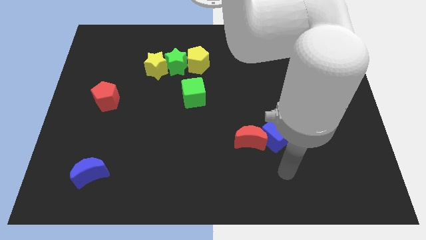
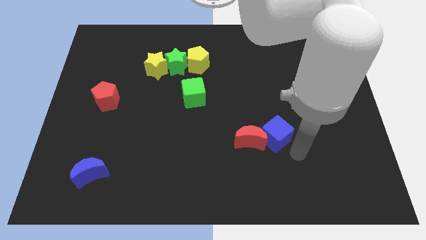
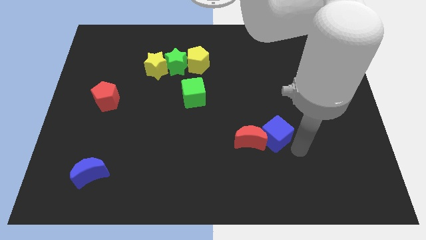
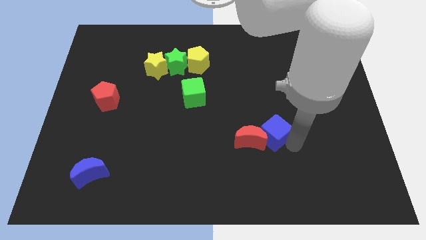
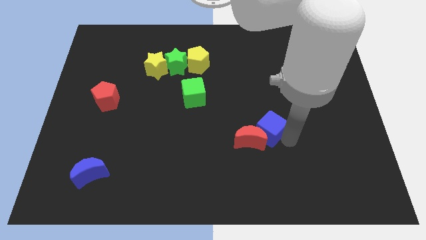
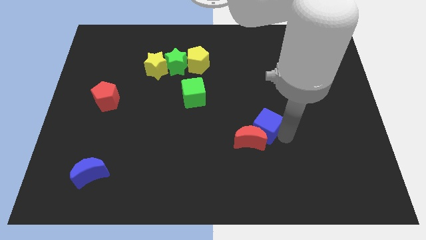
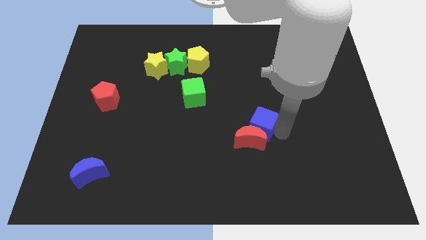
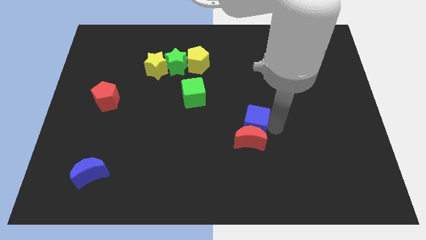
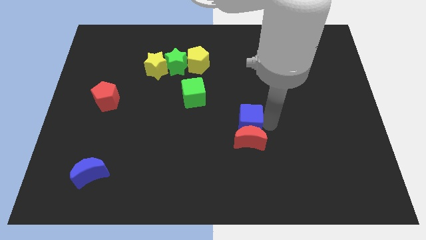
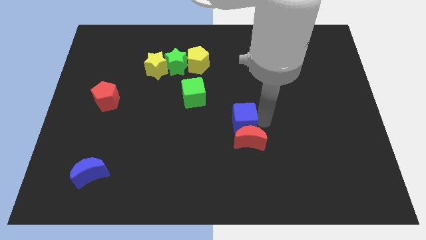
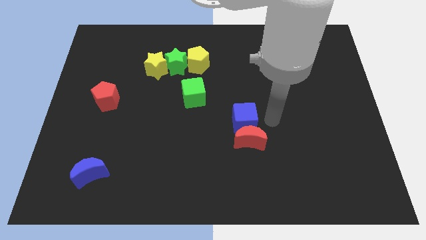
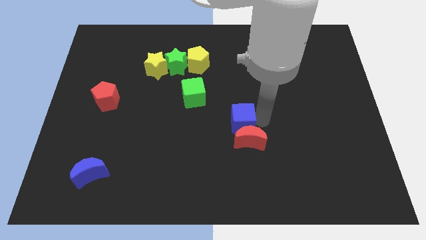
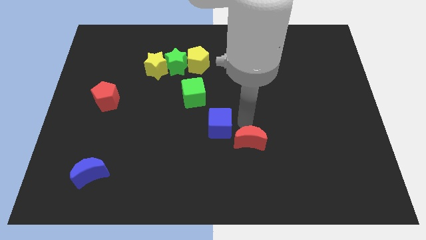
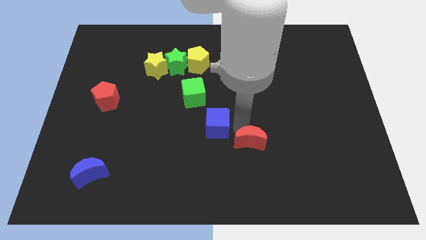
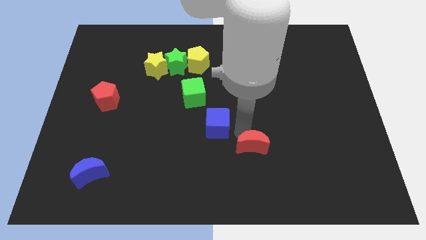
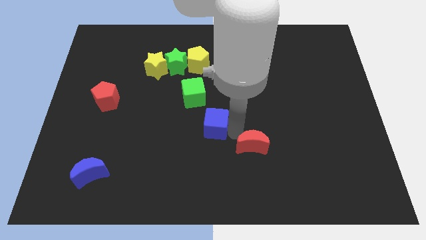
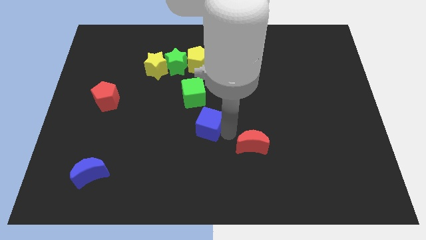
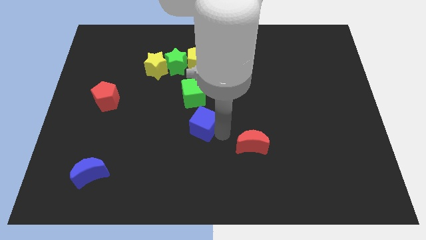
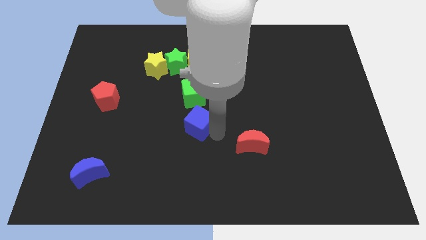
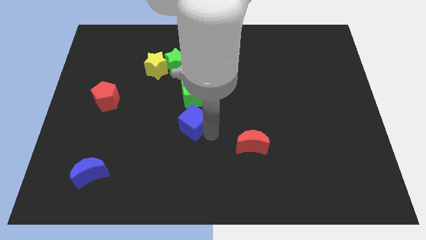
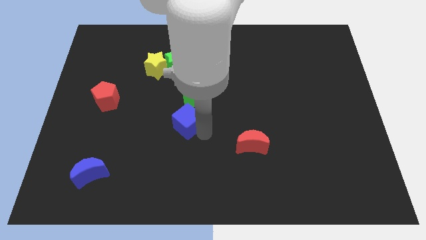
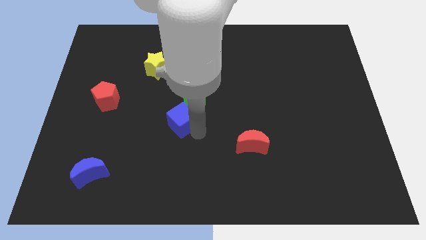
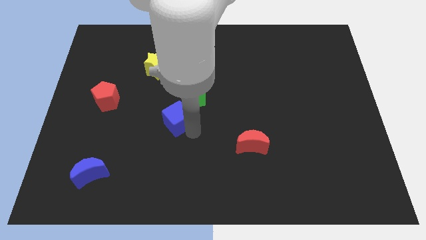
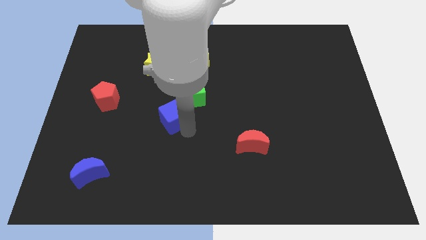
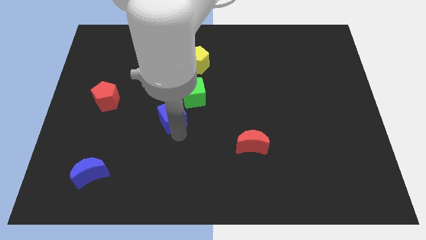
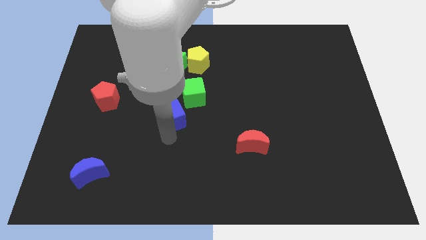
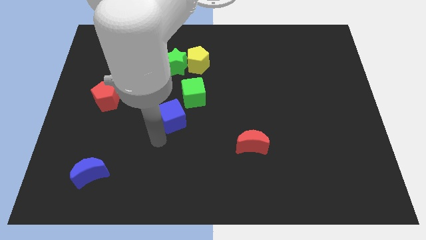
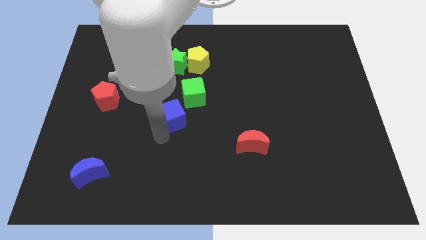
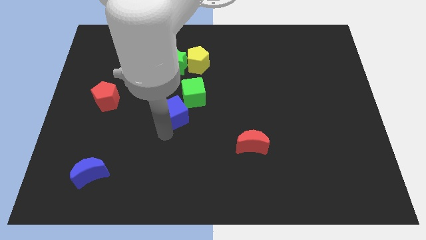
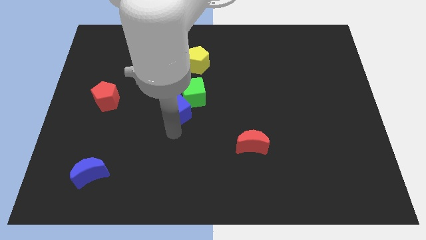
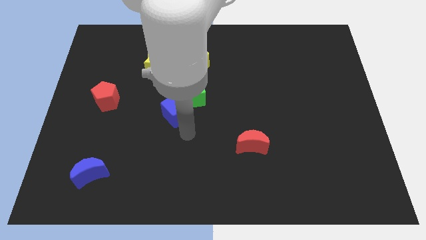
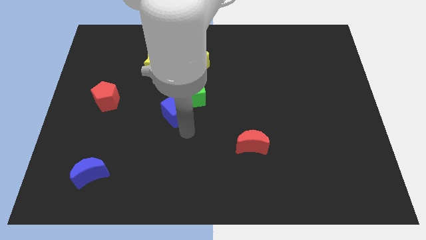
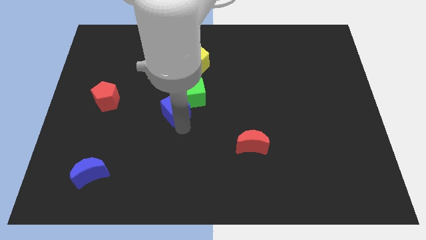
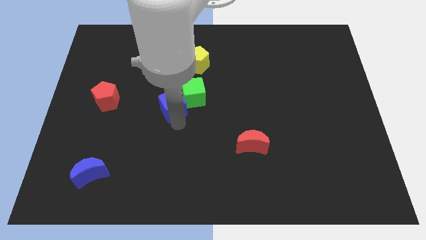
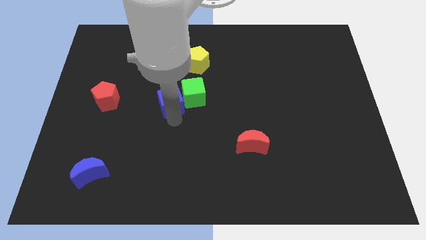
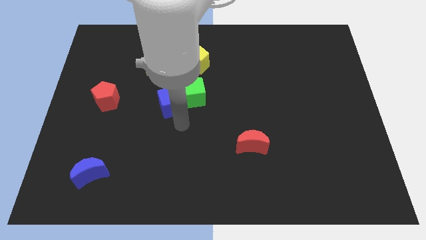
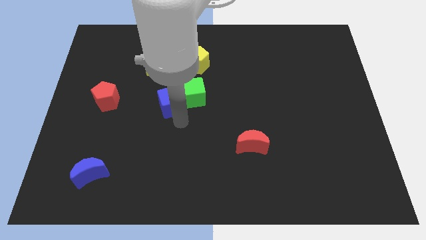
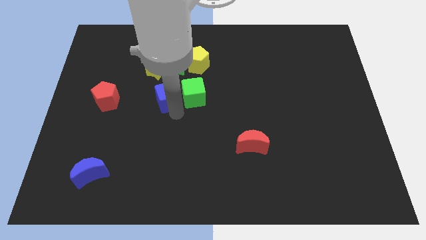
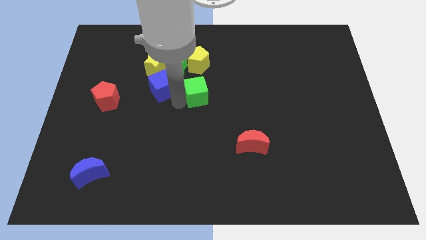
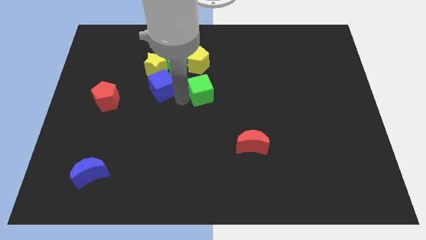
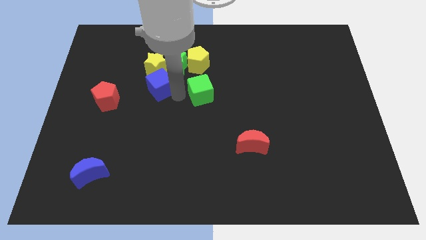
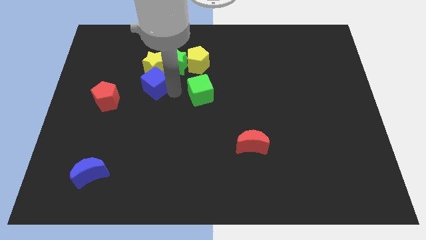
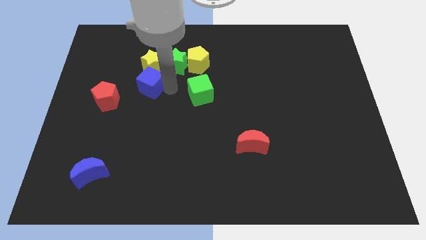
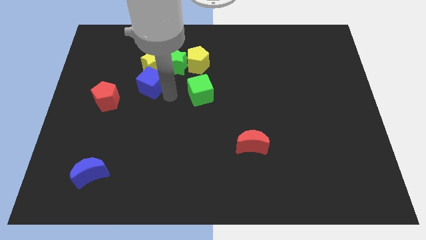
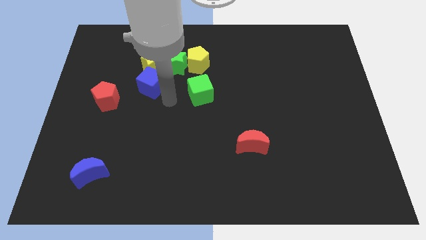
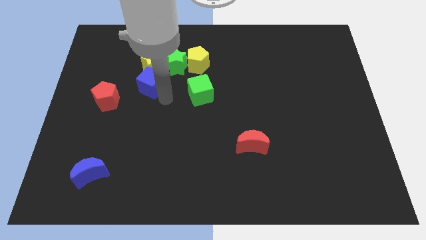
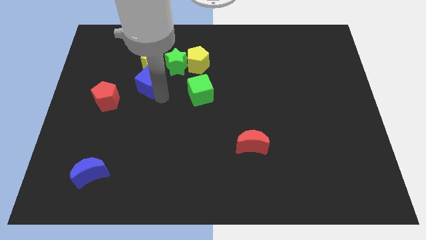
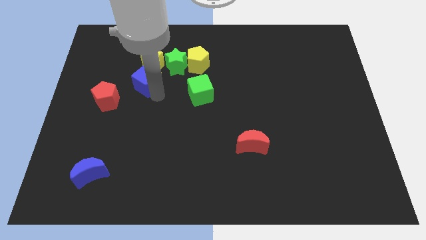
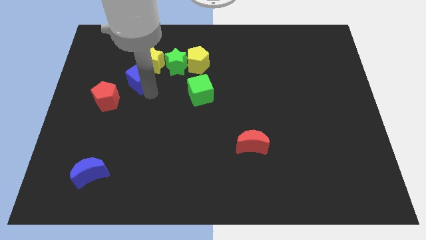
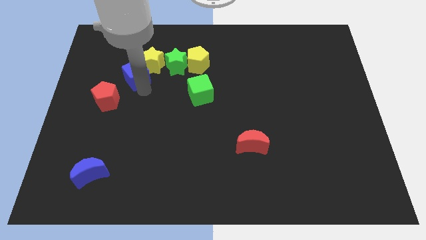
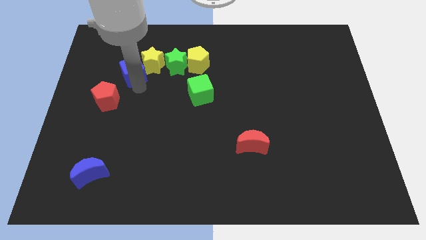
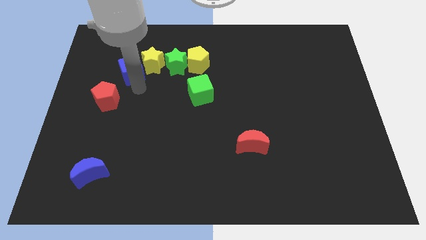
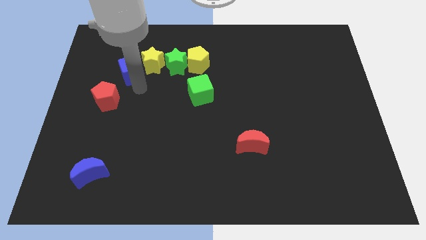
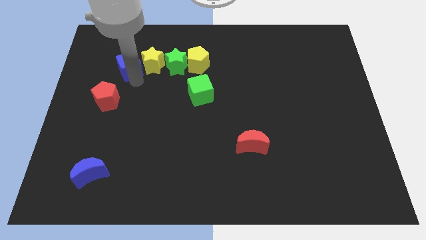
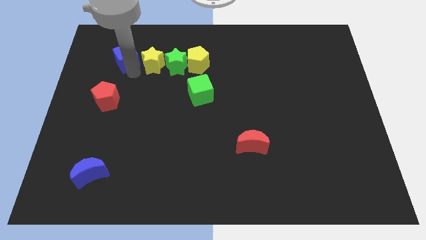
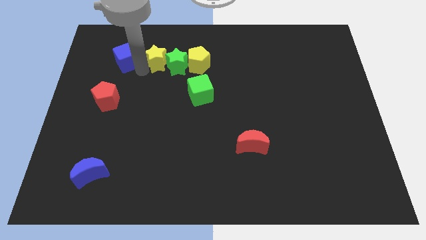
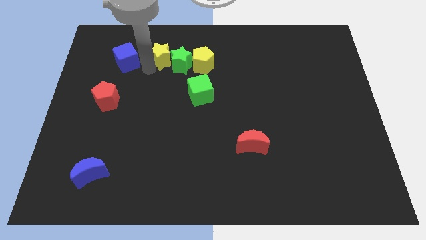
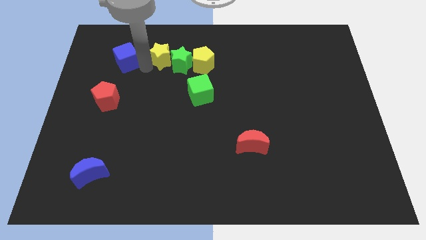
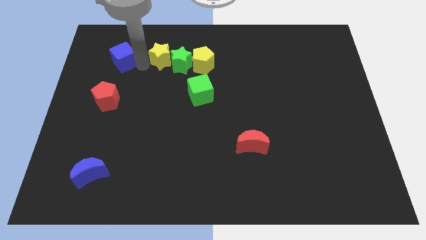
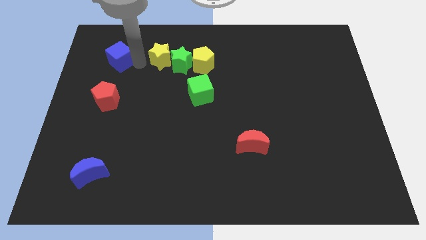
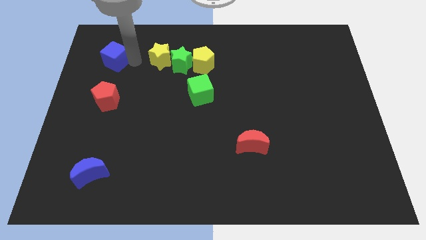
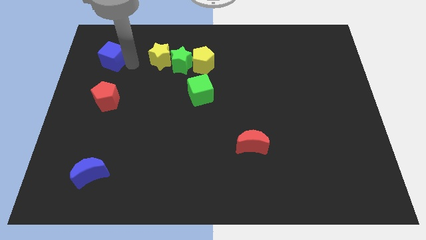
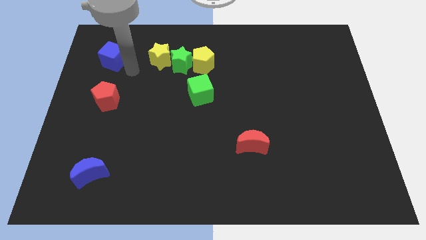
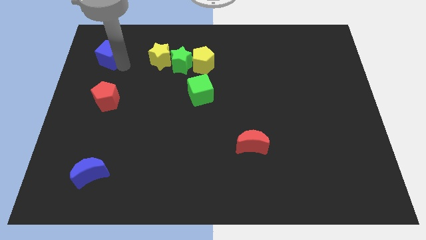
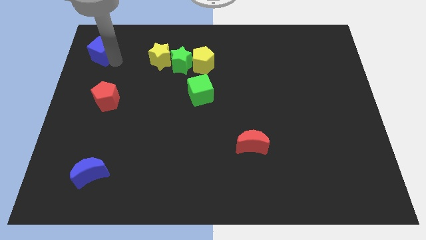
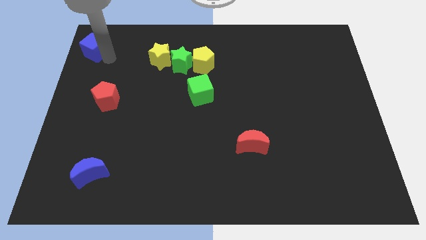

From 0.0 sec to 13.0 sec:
move the blue cube to the top left corner

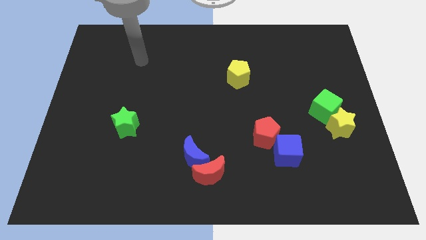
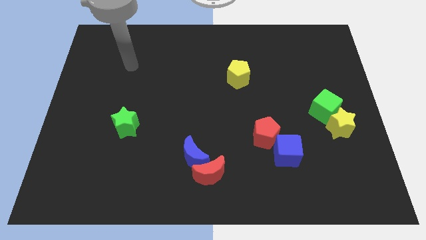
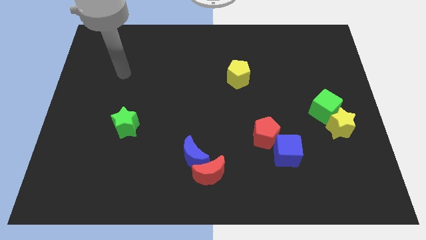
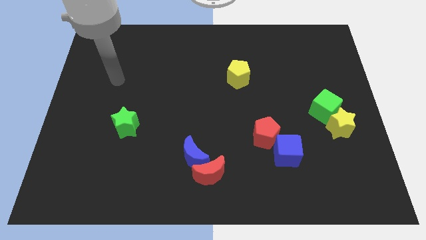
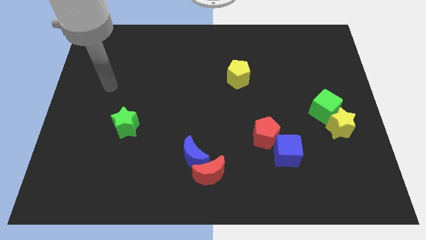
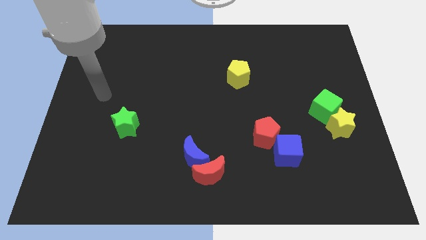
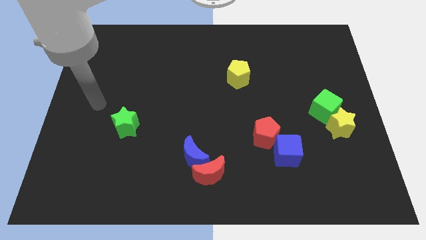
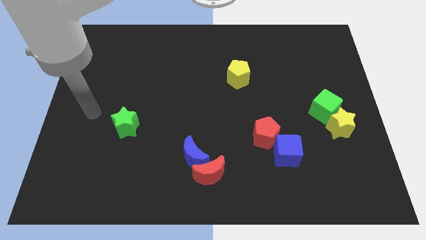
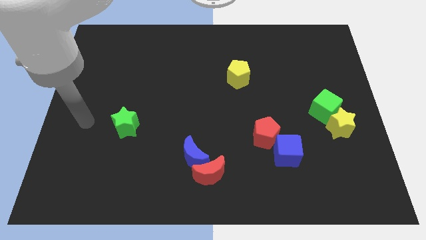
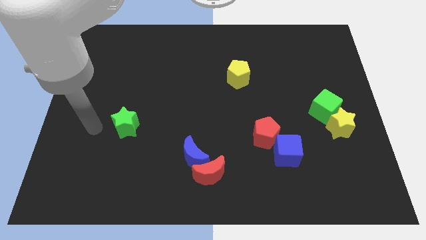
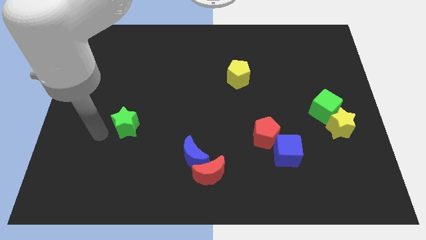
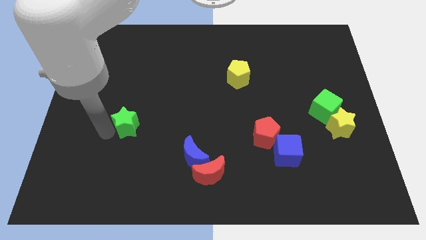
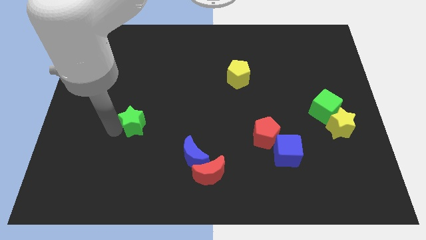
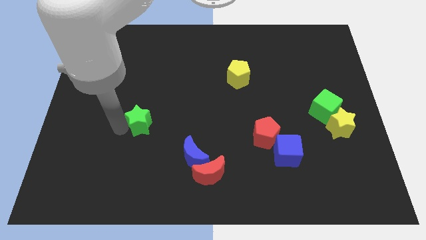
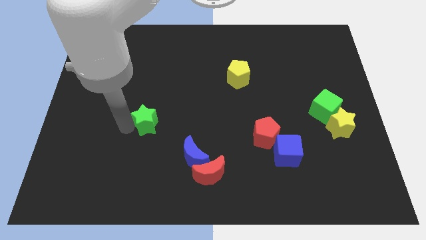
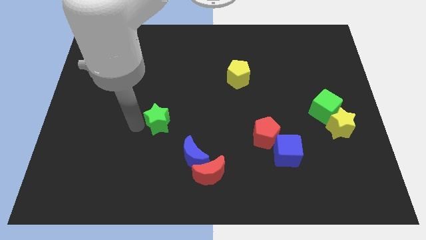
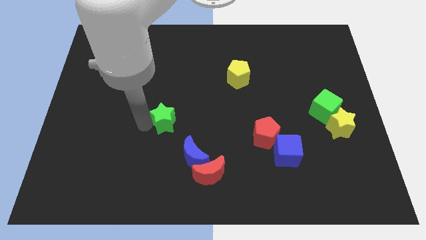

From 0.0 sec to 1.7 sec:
put the green star to the middle of the board
